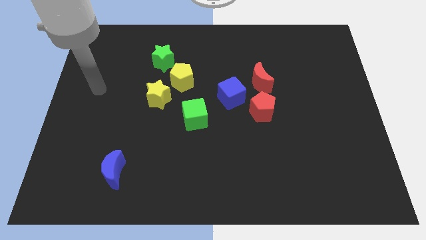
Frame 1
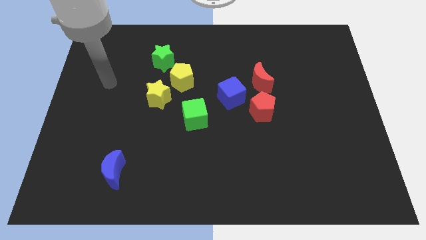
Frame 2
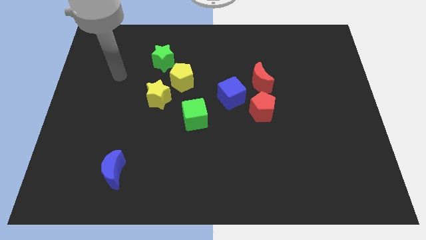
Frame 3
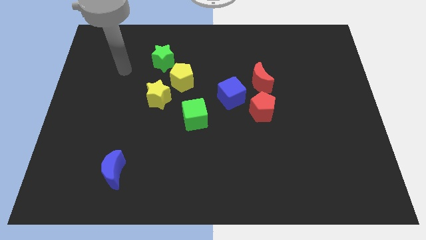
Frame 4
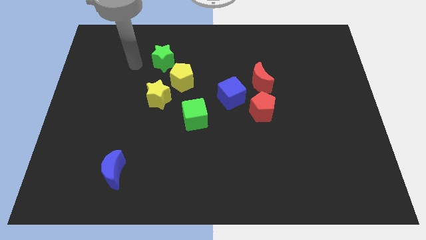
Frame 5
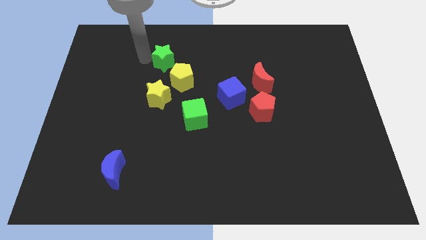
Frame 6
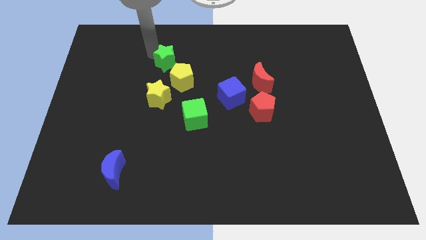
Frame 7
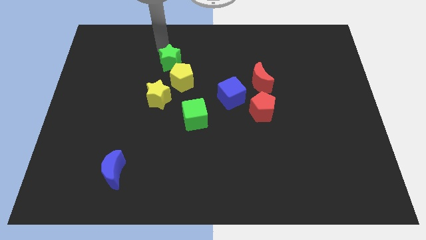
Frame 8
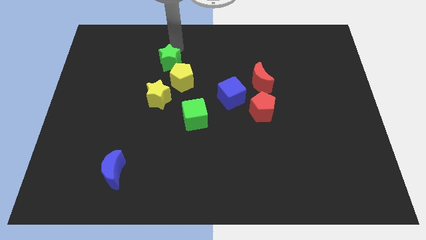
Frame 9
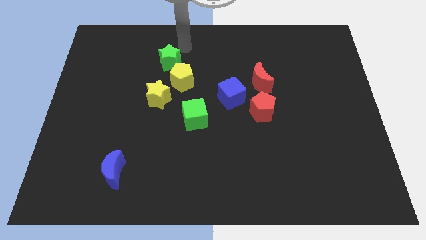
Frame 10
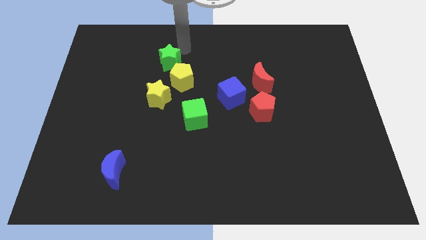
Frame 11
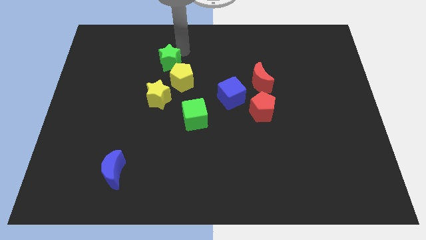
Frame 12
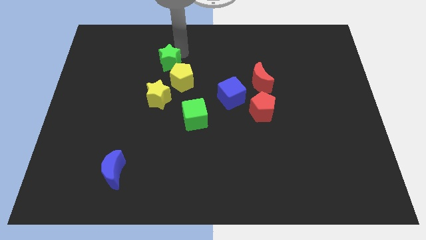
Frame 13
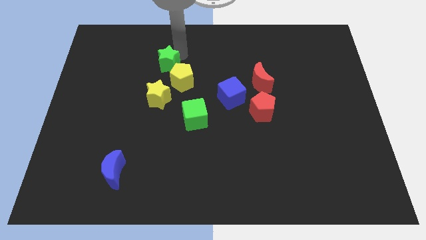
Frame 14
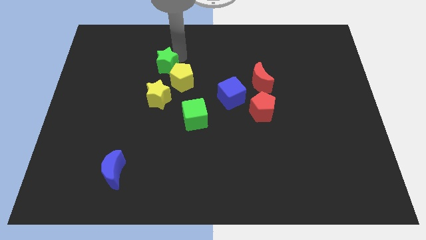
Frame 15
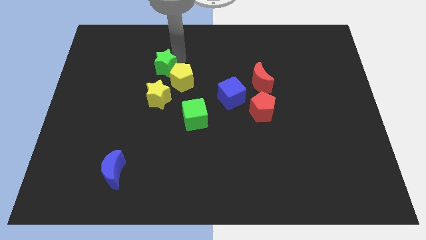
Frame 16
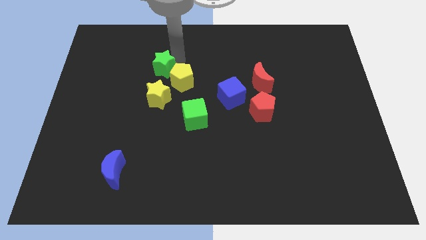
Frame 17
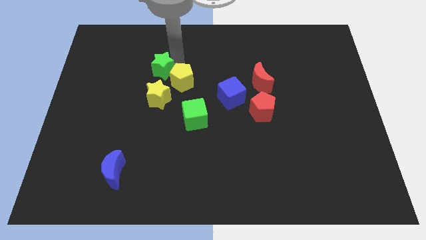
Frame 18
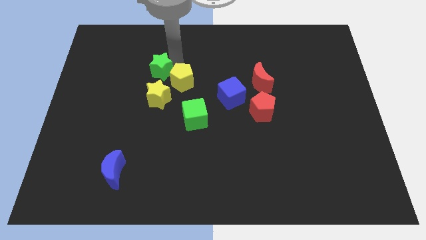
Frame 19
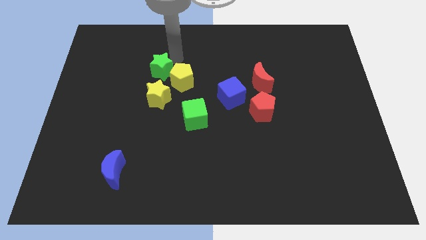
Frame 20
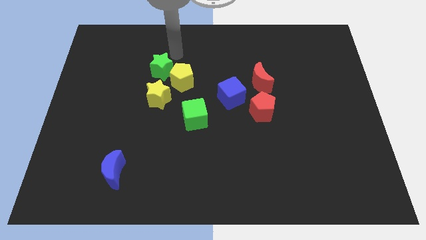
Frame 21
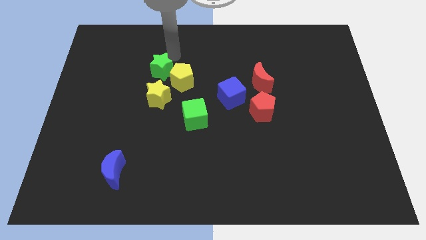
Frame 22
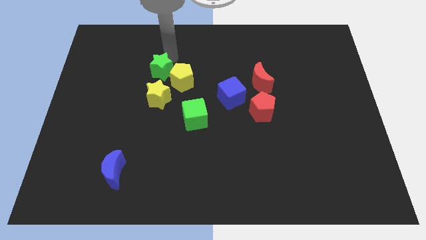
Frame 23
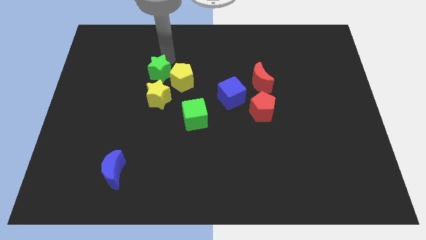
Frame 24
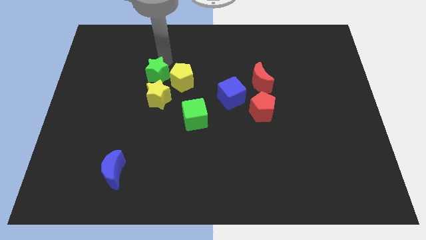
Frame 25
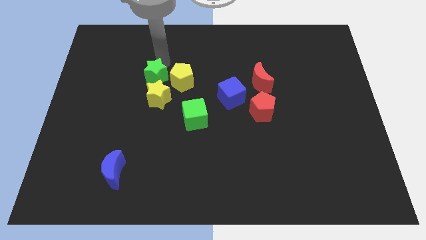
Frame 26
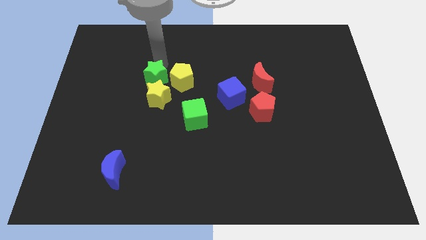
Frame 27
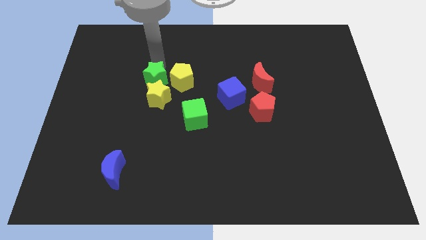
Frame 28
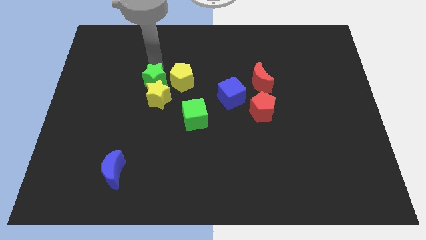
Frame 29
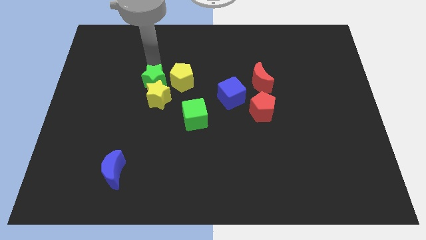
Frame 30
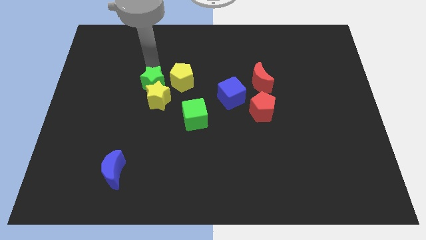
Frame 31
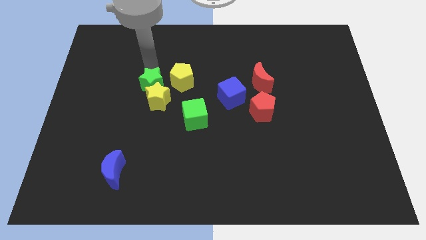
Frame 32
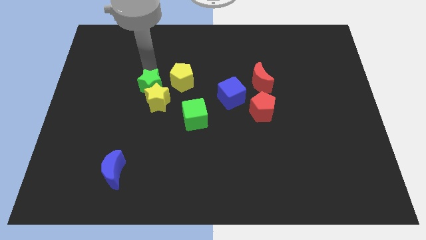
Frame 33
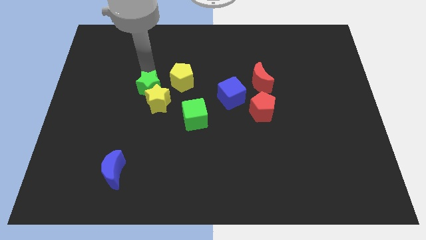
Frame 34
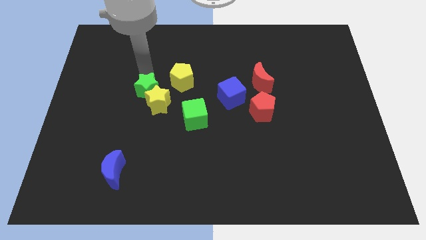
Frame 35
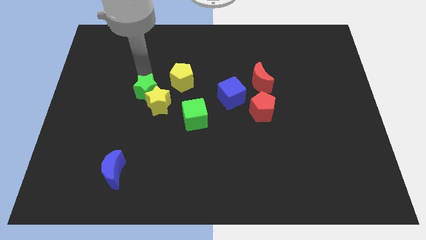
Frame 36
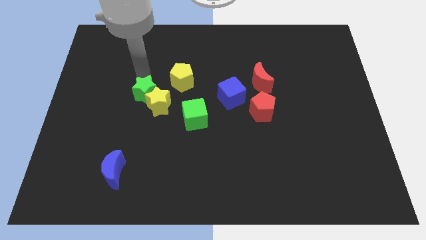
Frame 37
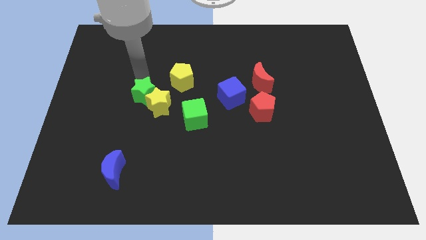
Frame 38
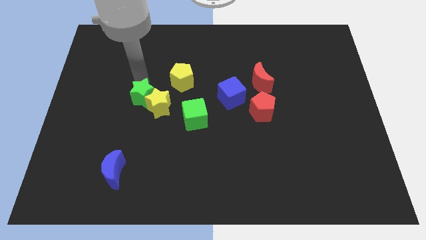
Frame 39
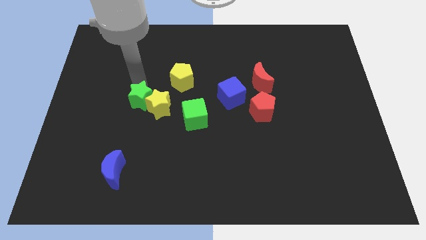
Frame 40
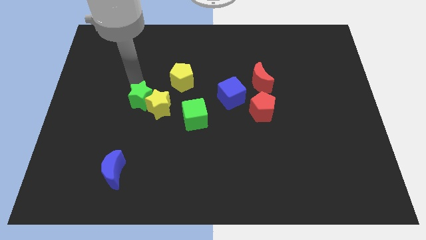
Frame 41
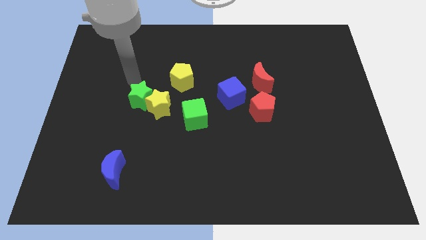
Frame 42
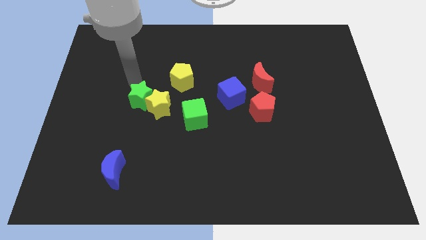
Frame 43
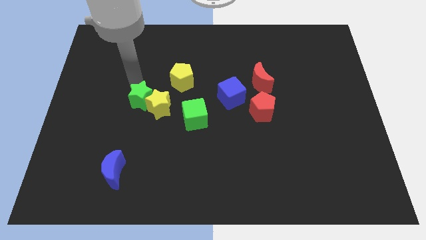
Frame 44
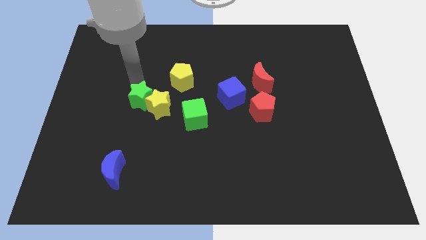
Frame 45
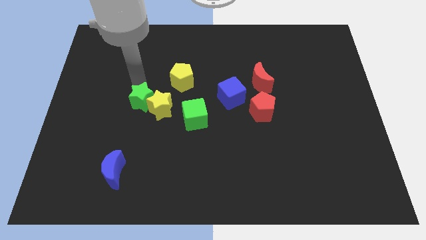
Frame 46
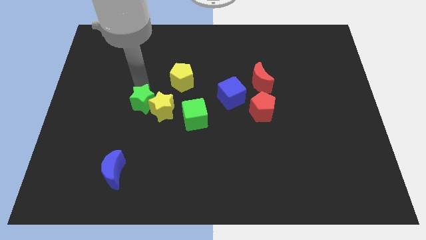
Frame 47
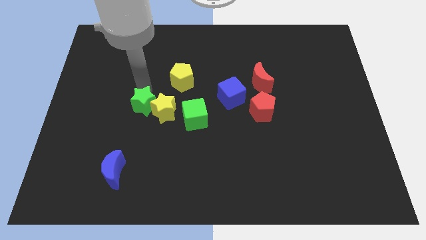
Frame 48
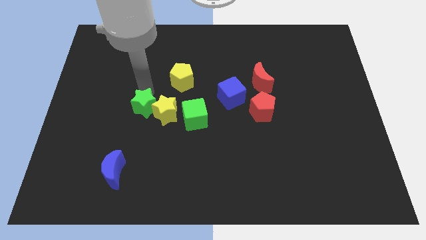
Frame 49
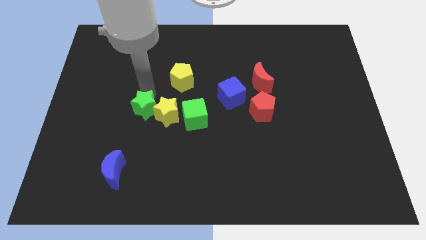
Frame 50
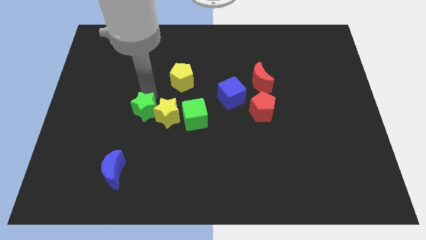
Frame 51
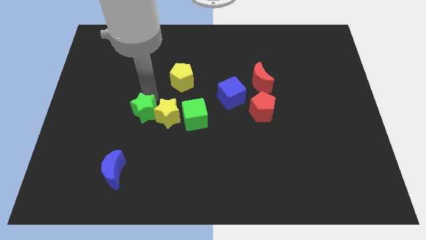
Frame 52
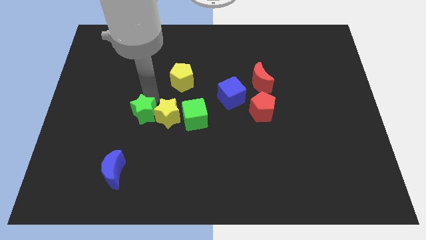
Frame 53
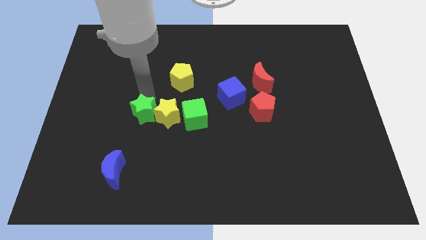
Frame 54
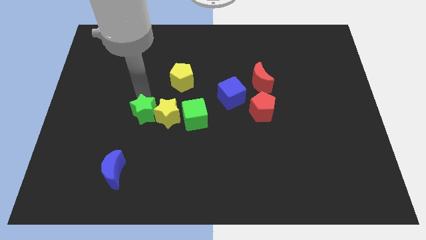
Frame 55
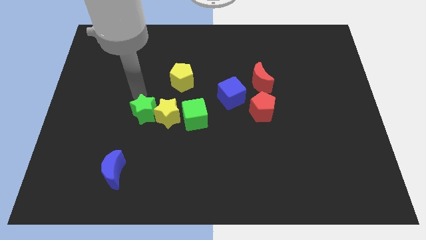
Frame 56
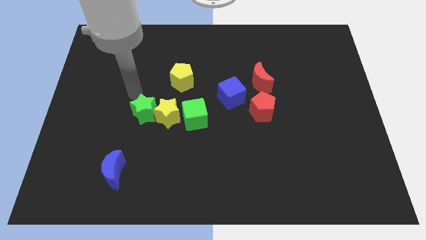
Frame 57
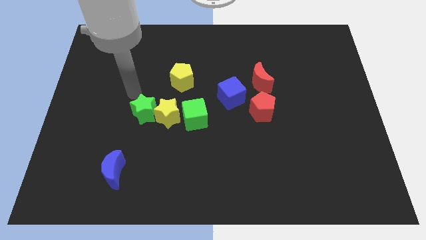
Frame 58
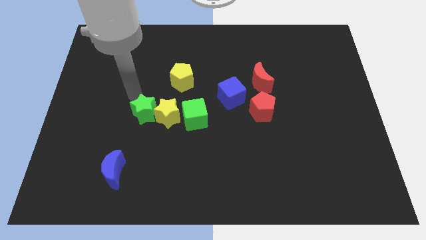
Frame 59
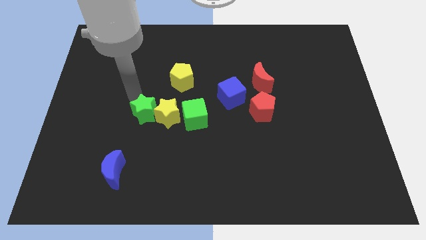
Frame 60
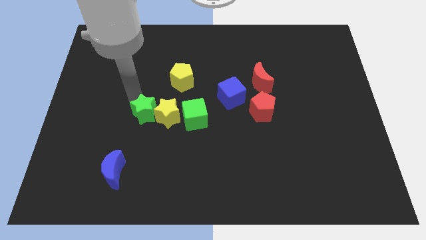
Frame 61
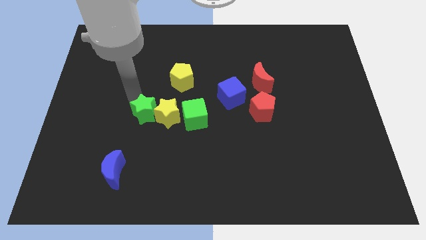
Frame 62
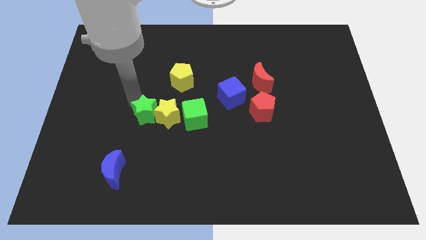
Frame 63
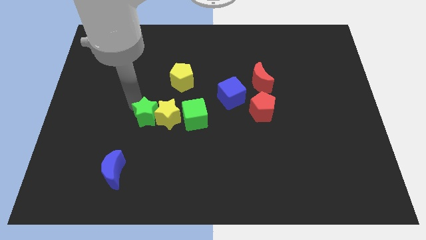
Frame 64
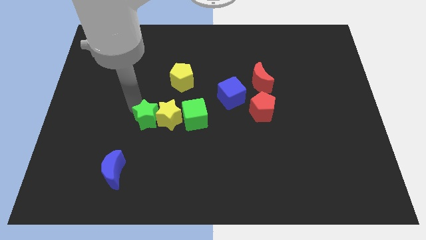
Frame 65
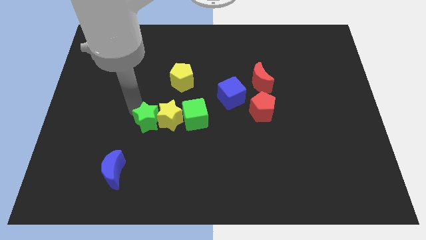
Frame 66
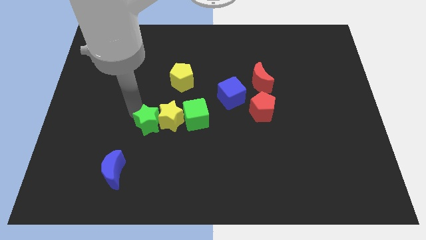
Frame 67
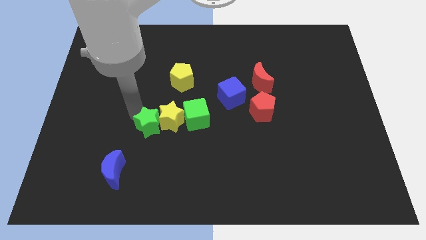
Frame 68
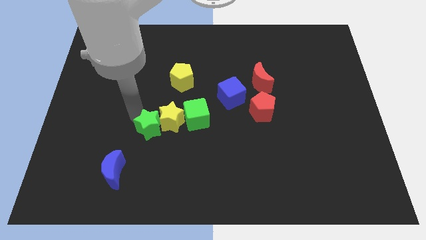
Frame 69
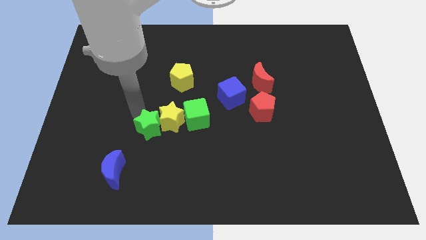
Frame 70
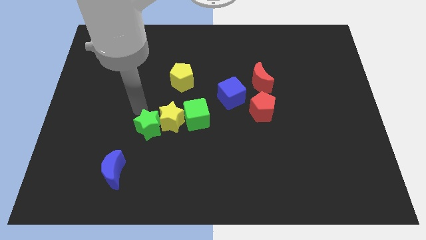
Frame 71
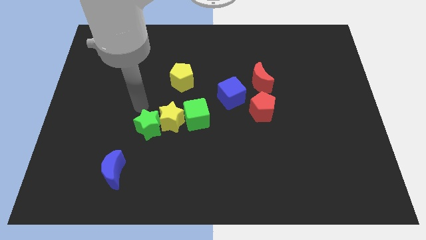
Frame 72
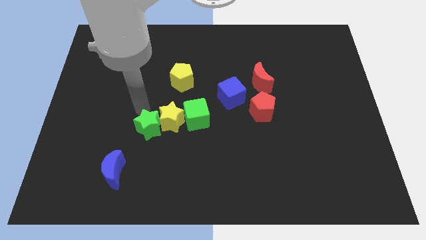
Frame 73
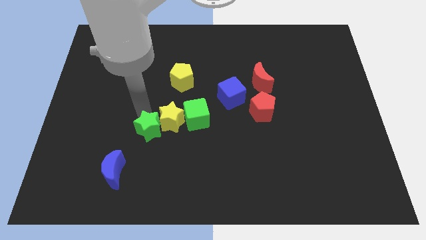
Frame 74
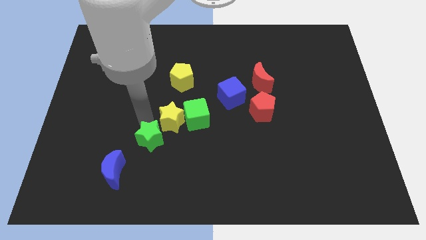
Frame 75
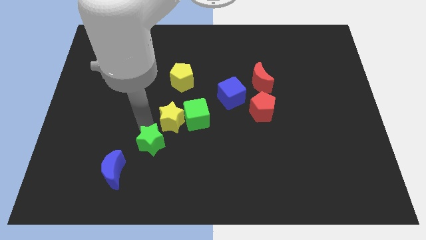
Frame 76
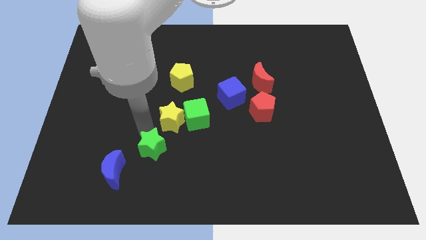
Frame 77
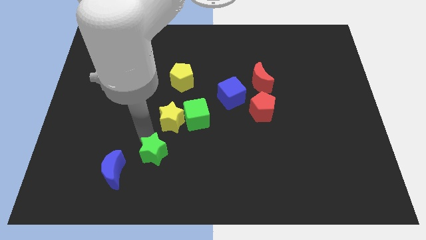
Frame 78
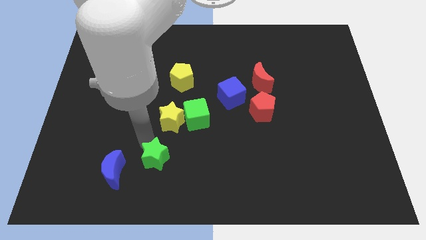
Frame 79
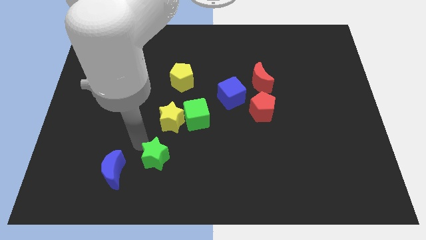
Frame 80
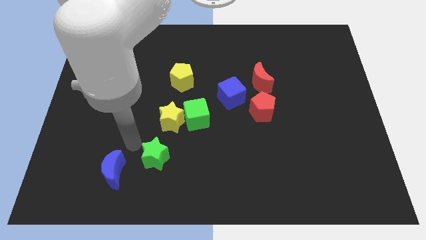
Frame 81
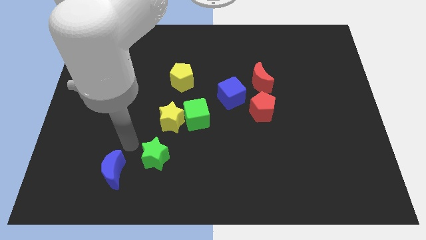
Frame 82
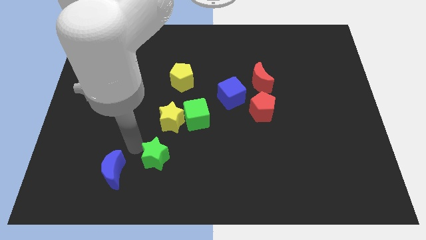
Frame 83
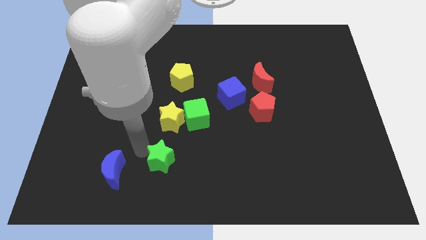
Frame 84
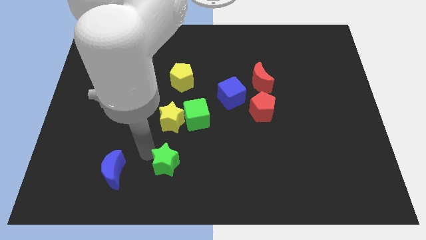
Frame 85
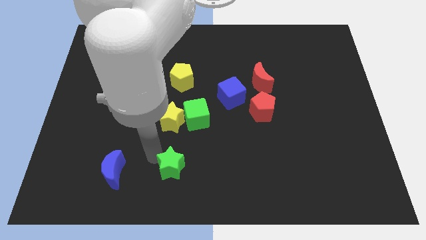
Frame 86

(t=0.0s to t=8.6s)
move the green star to the bottom side
